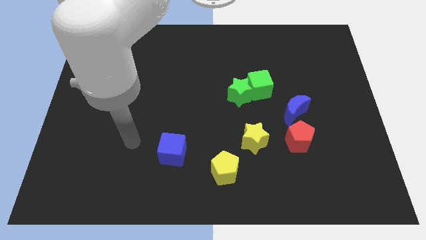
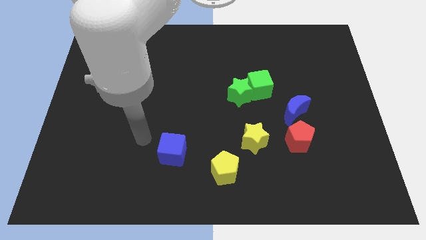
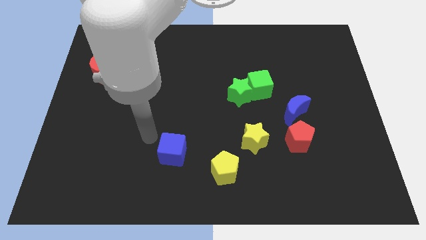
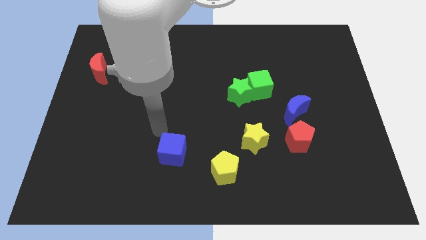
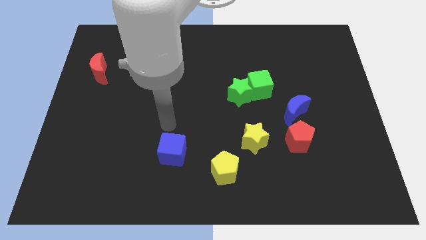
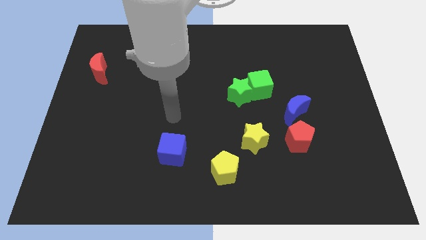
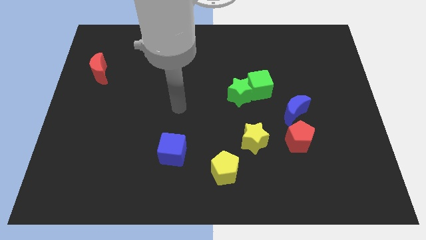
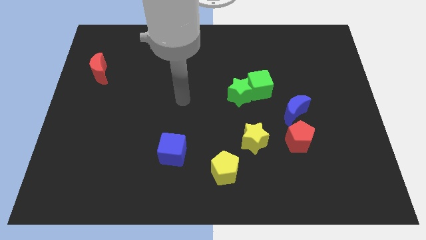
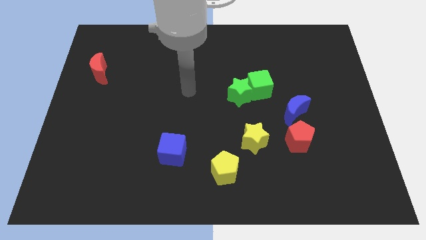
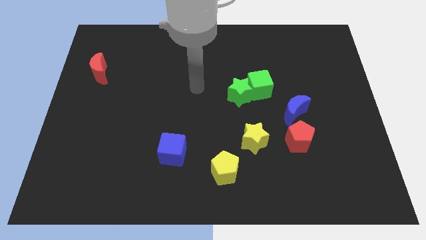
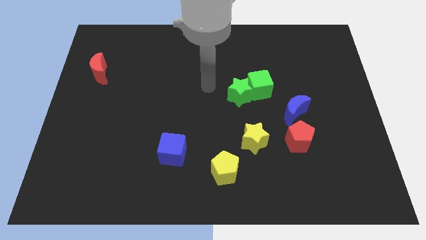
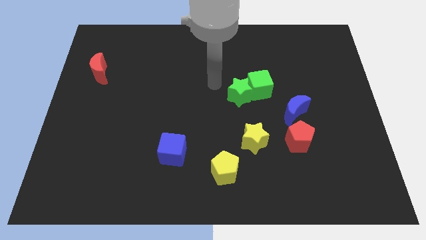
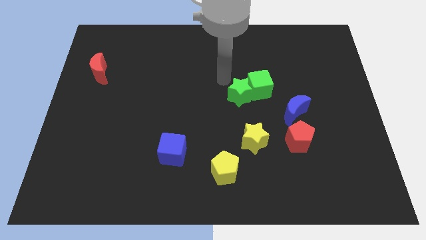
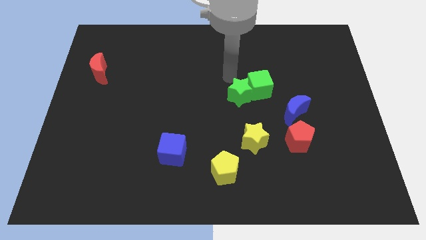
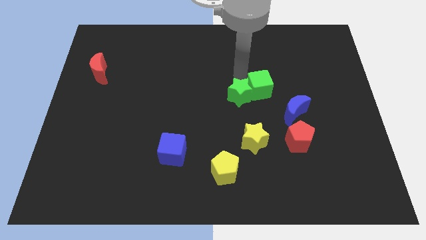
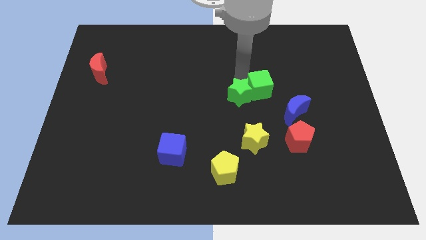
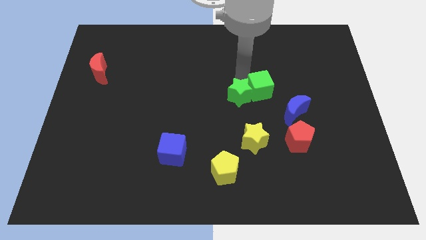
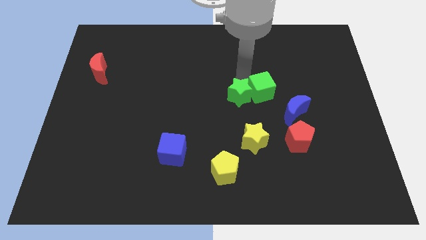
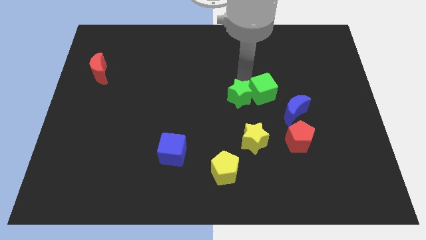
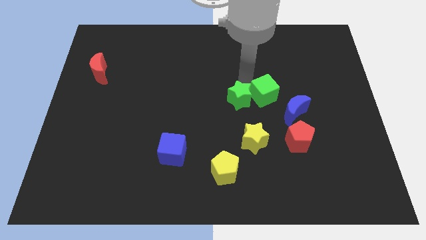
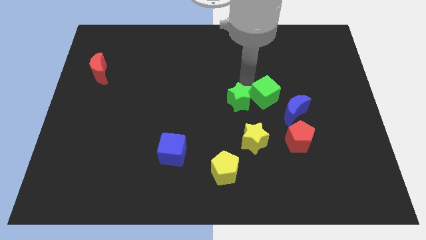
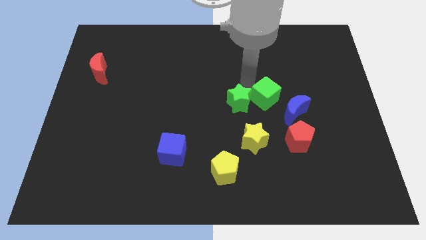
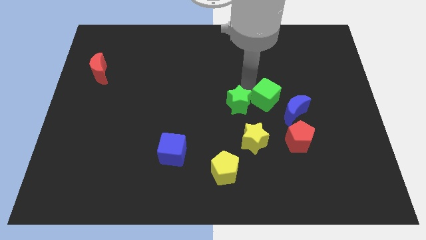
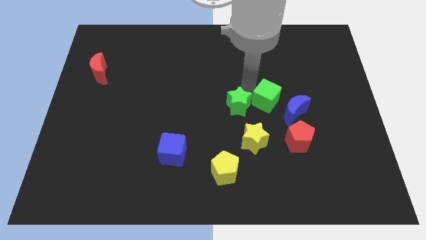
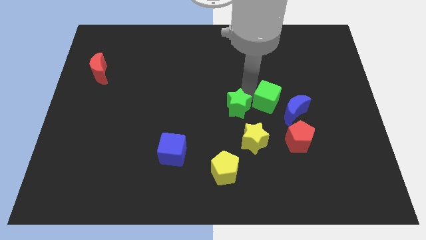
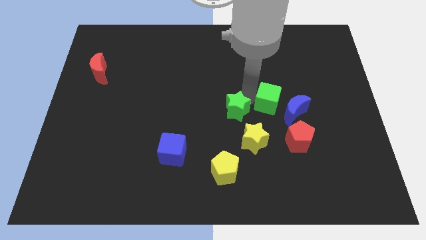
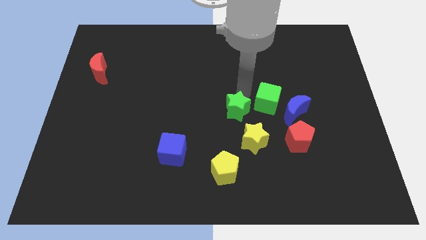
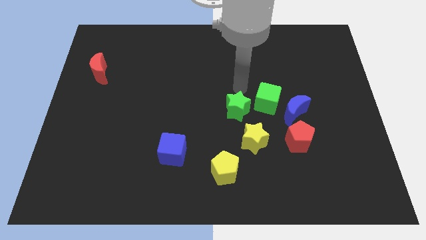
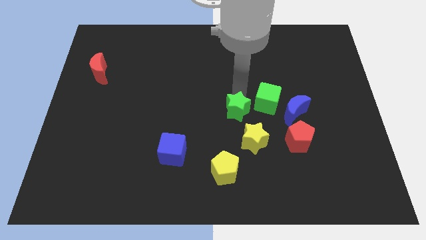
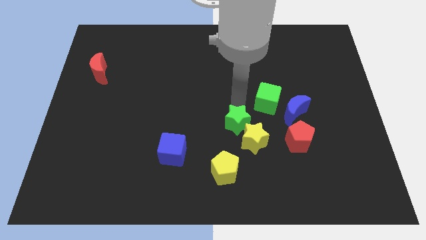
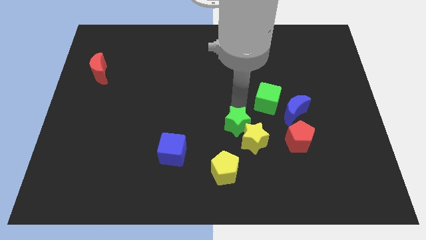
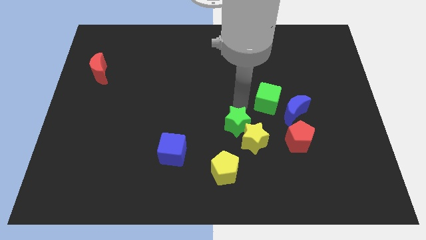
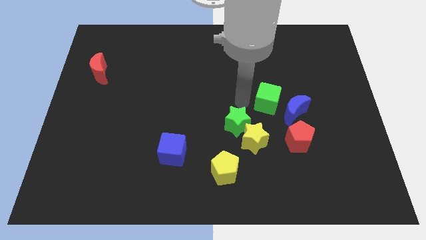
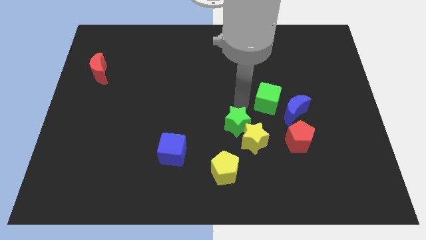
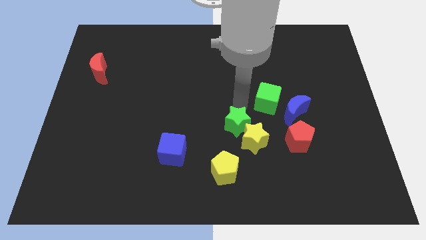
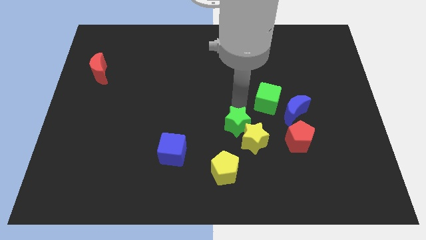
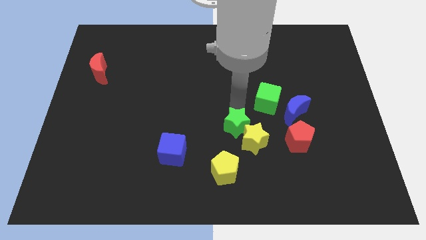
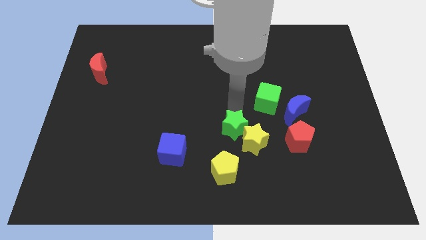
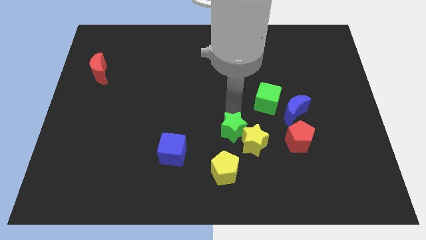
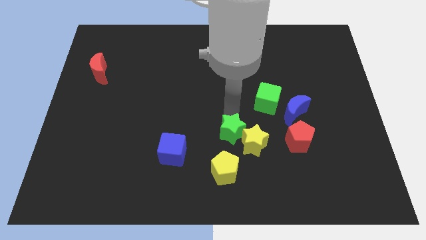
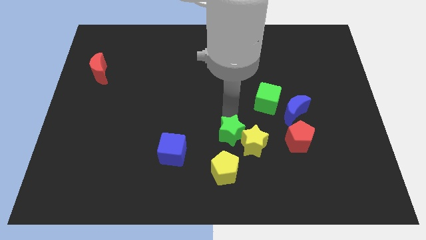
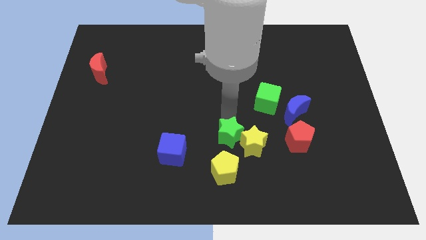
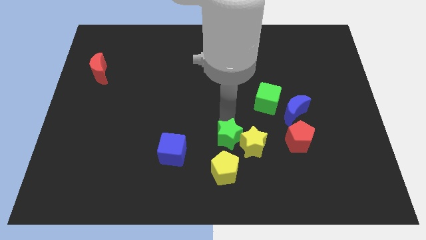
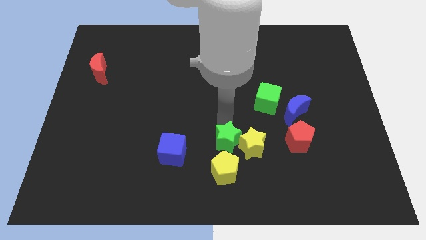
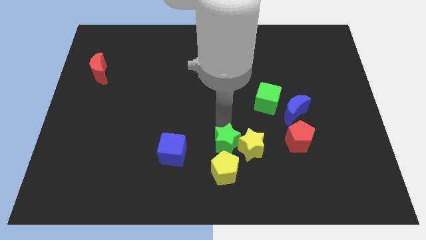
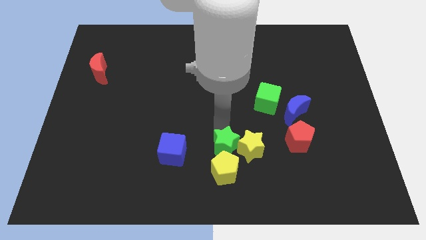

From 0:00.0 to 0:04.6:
slide the green star next to the yellow pentagon

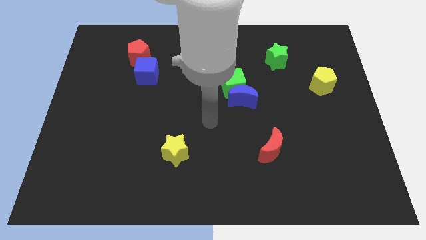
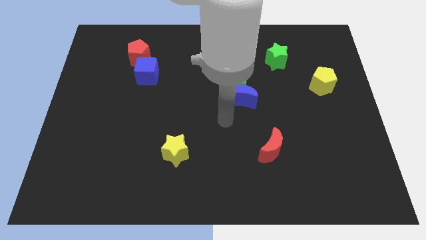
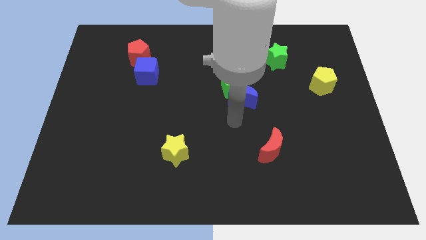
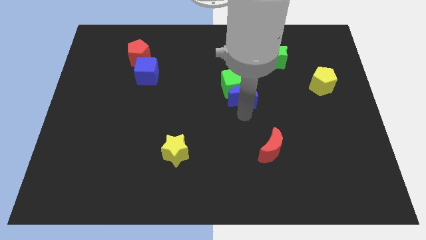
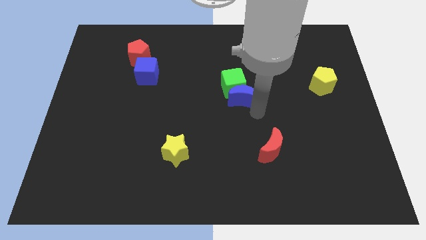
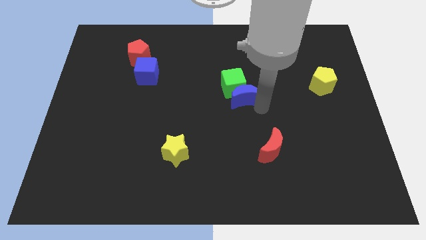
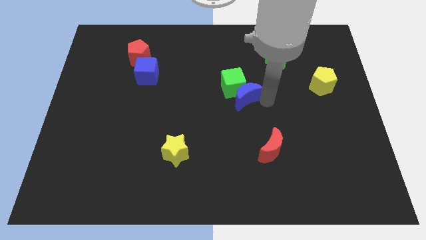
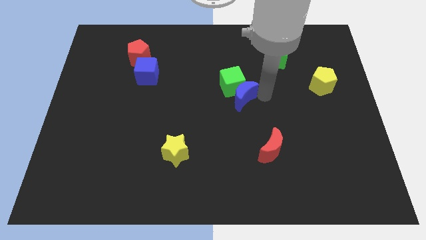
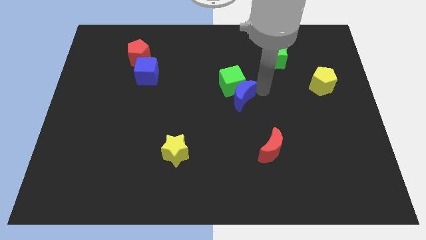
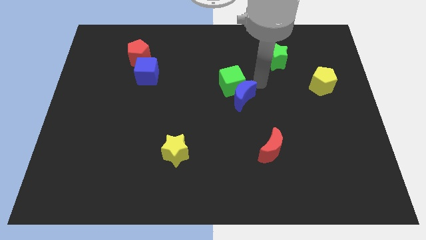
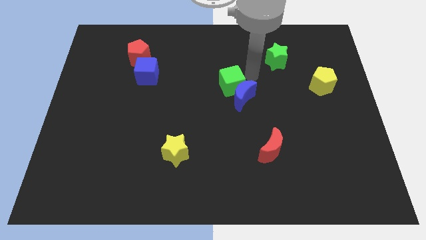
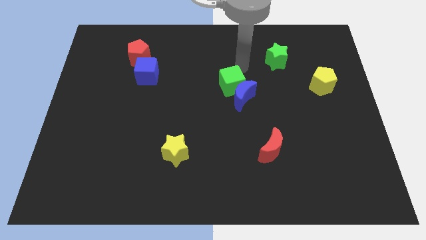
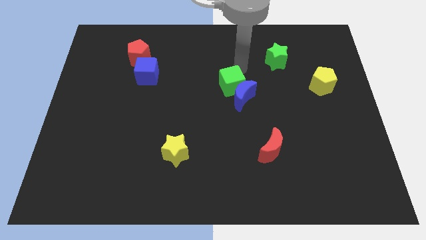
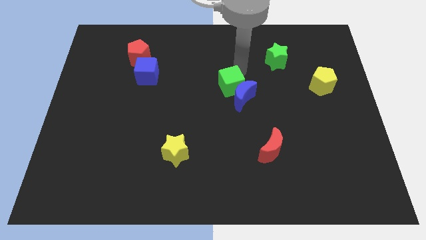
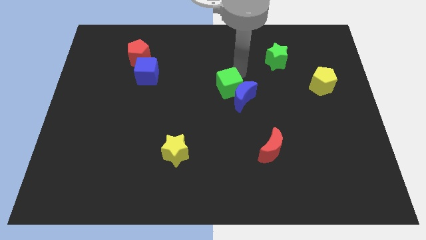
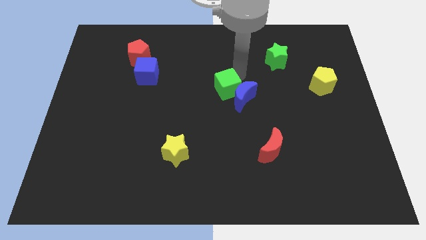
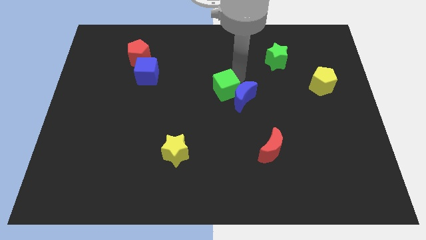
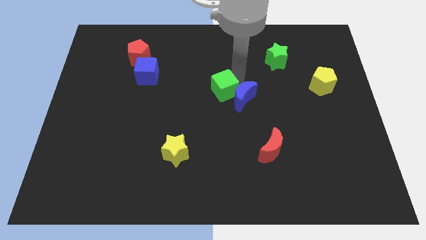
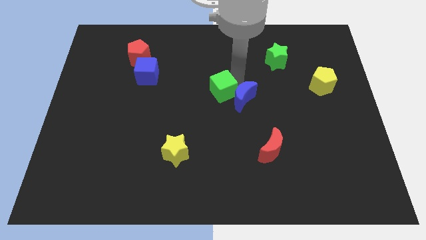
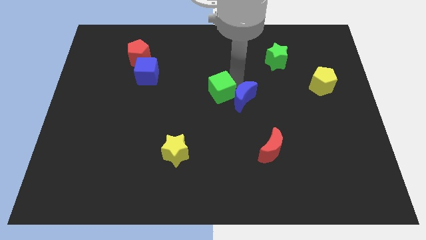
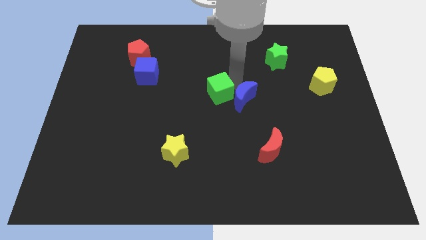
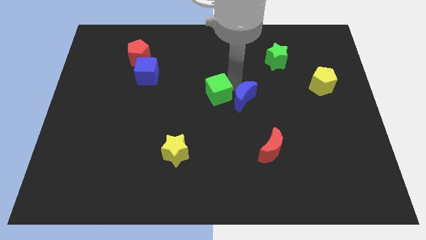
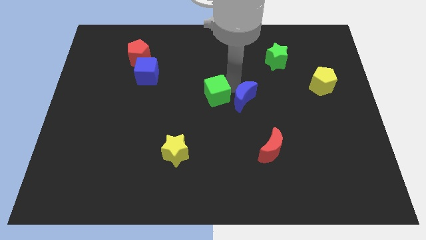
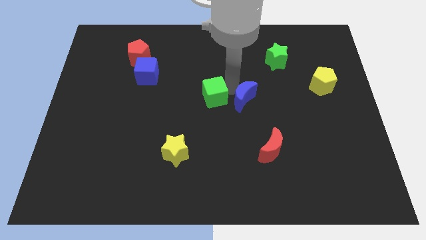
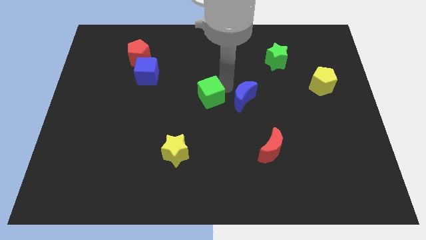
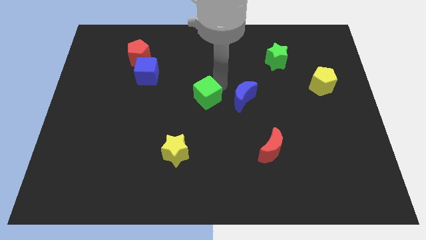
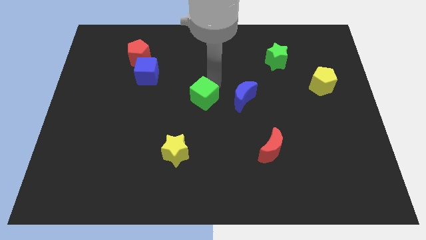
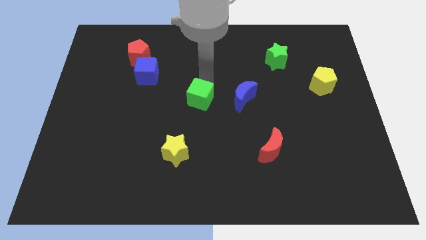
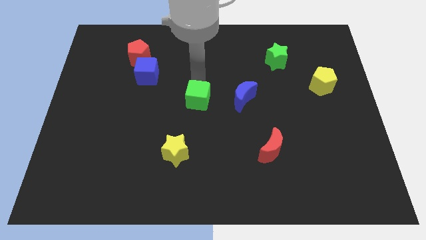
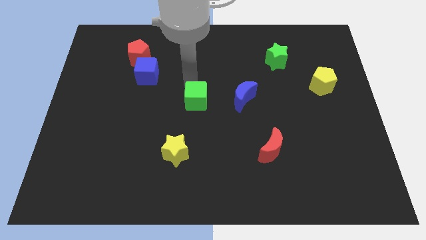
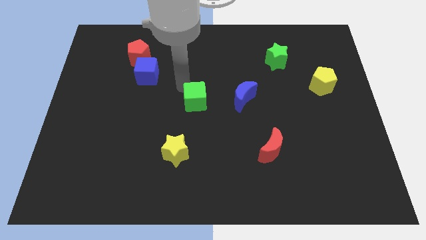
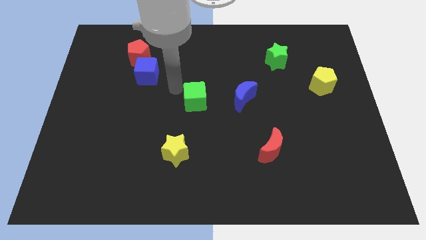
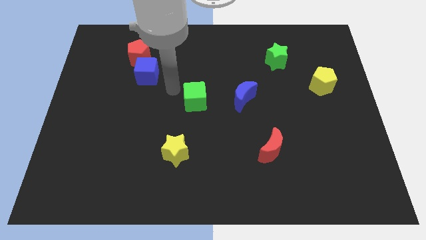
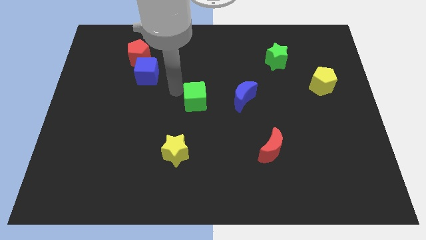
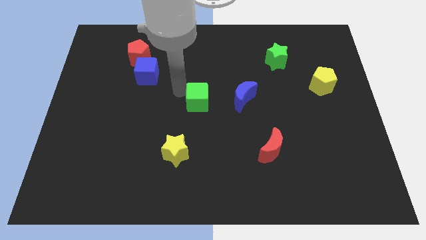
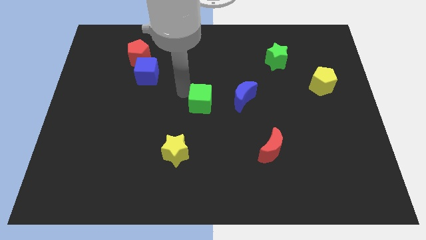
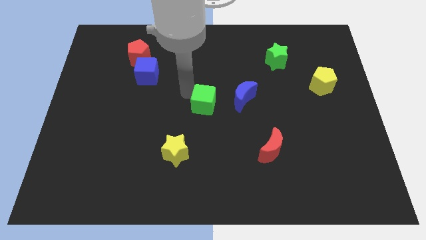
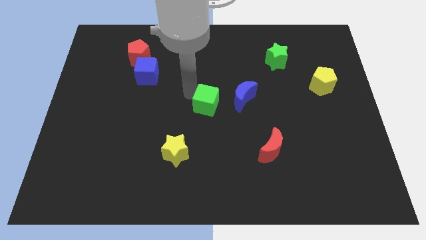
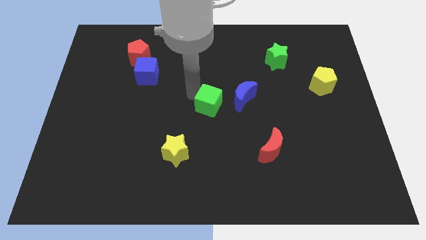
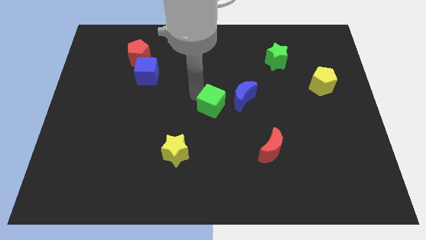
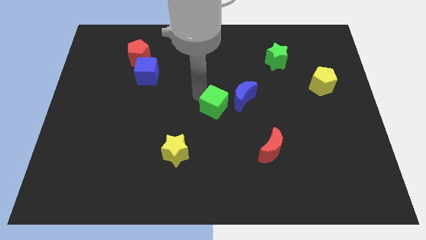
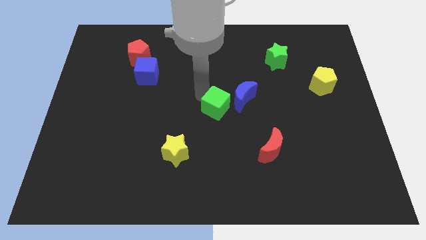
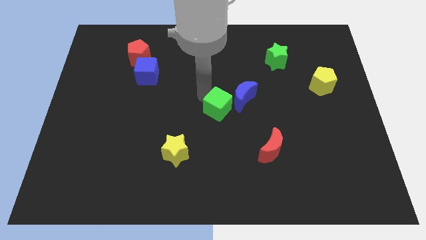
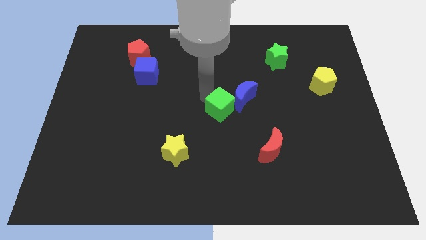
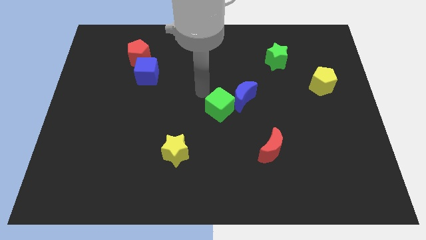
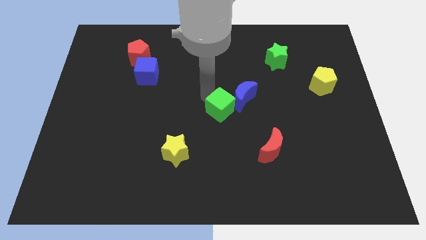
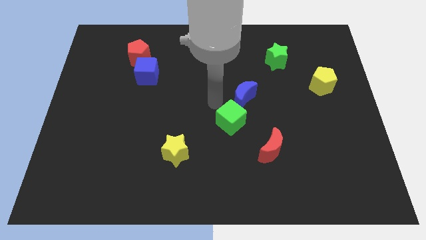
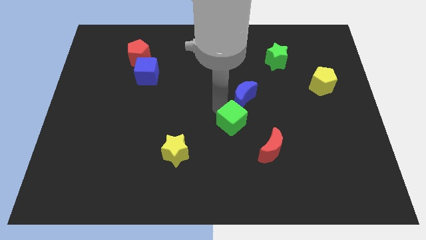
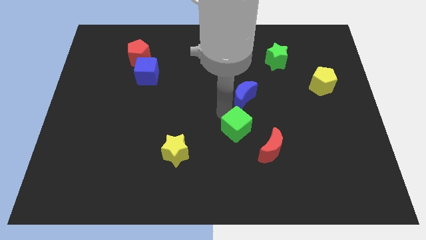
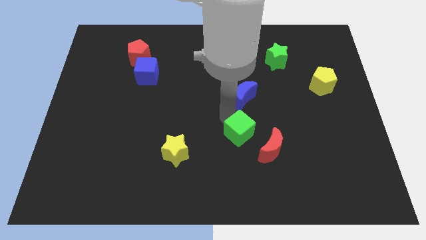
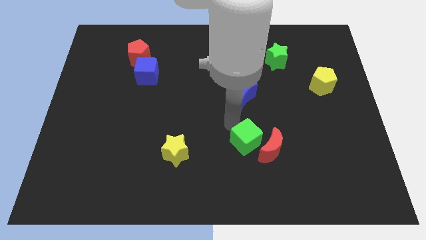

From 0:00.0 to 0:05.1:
put the green cube towards the red moon
